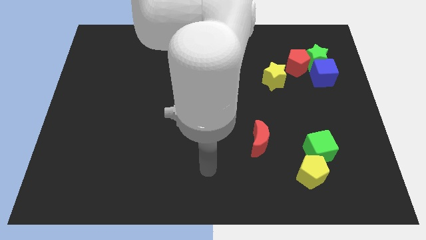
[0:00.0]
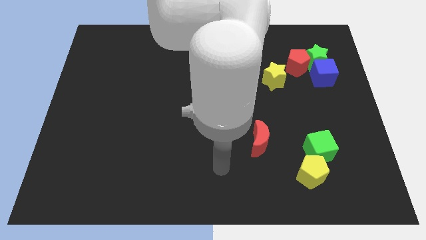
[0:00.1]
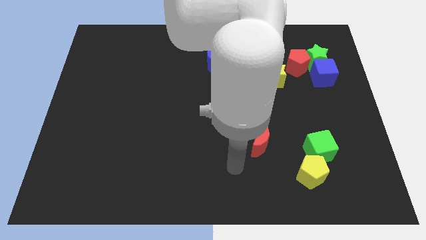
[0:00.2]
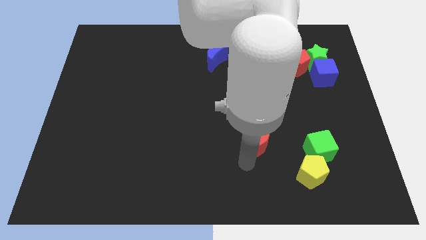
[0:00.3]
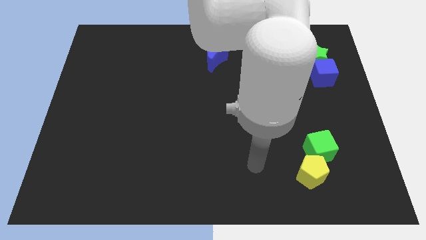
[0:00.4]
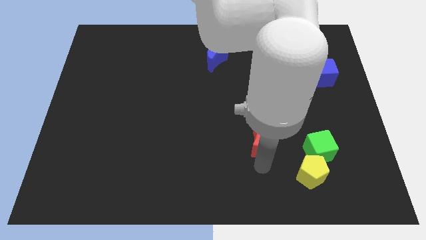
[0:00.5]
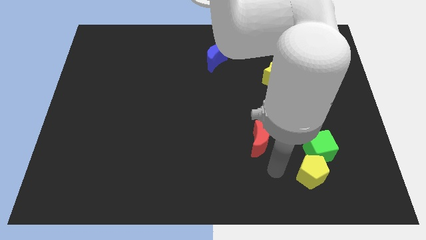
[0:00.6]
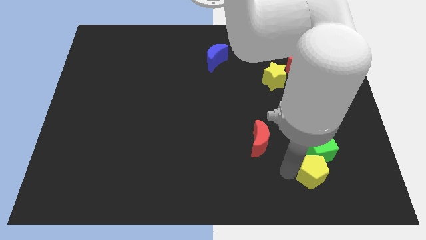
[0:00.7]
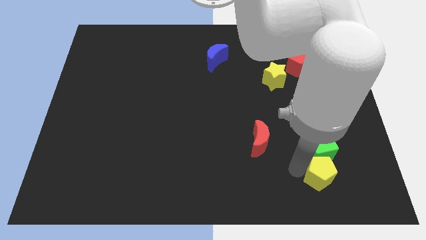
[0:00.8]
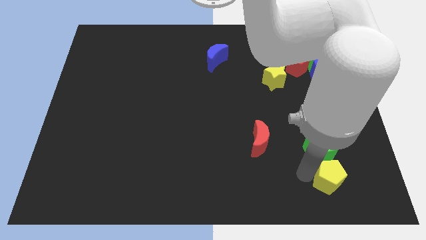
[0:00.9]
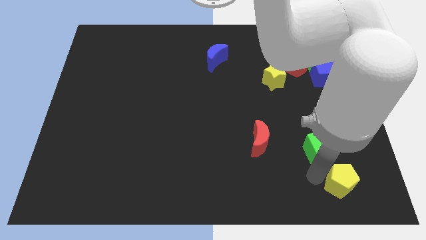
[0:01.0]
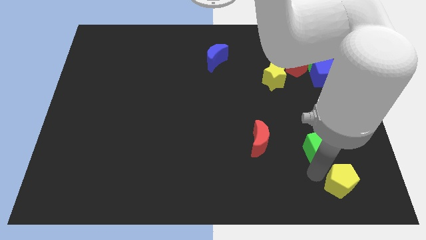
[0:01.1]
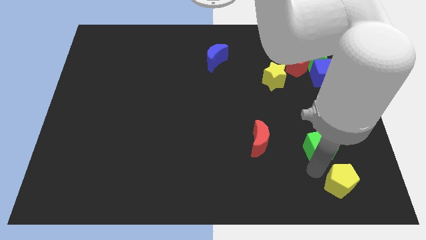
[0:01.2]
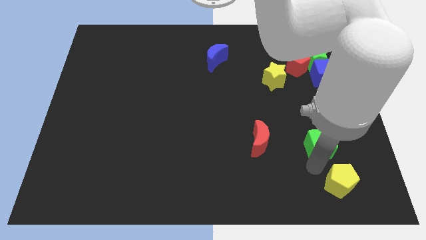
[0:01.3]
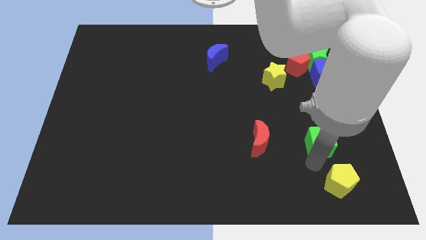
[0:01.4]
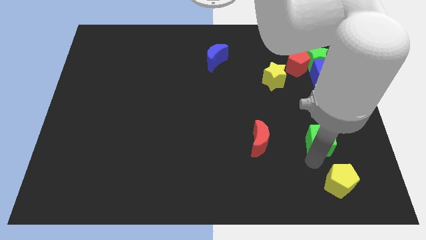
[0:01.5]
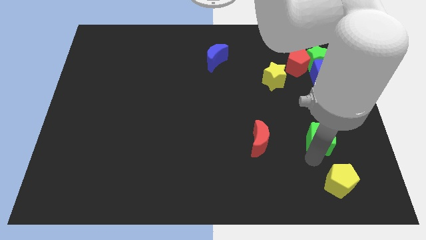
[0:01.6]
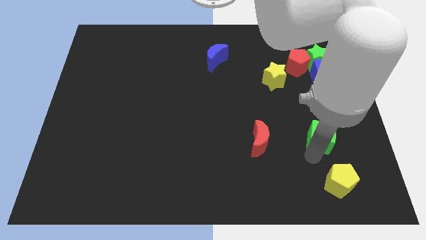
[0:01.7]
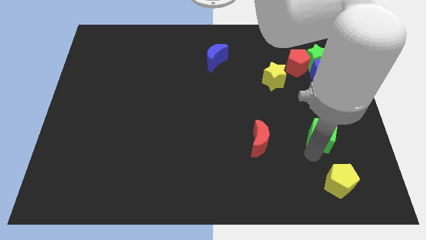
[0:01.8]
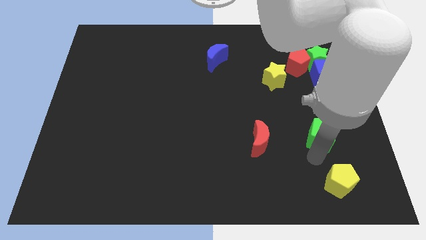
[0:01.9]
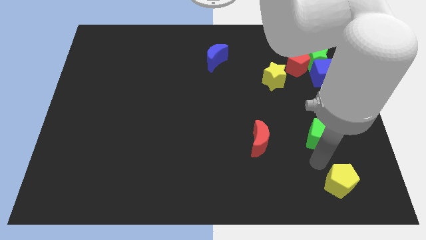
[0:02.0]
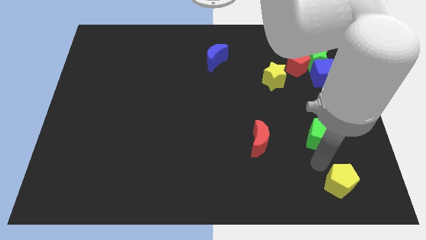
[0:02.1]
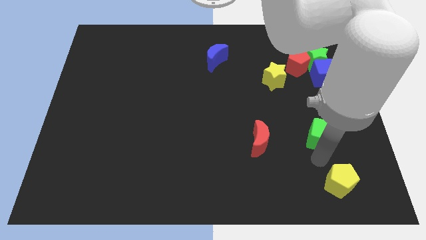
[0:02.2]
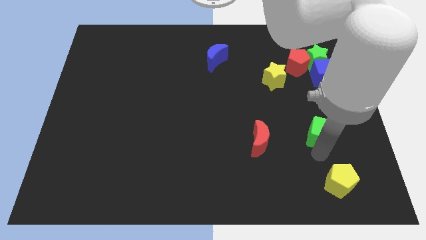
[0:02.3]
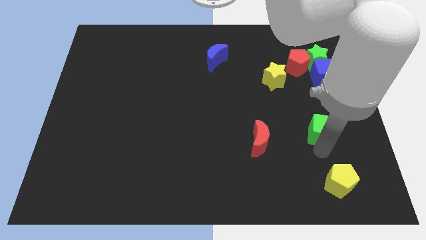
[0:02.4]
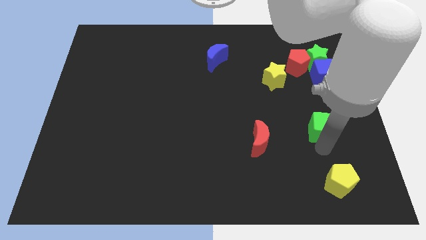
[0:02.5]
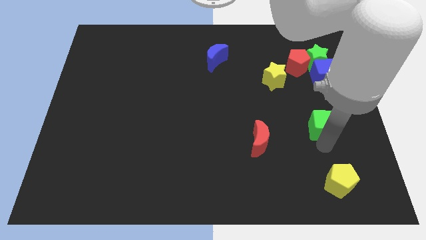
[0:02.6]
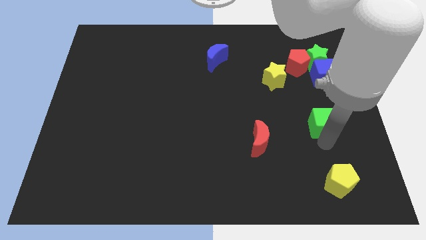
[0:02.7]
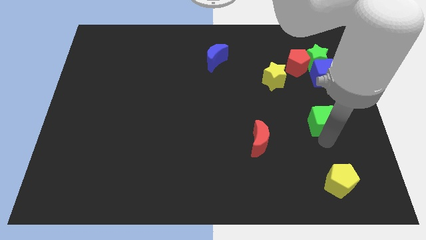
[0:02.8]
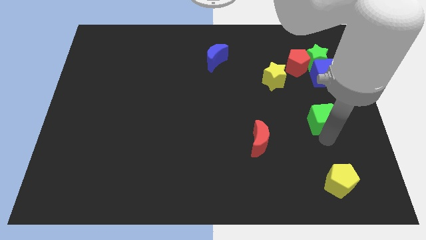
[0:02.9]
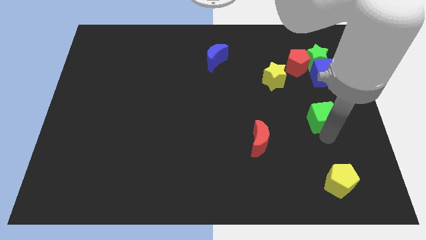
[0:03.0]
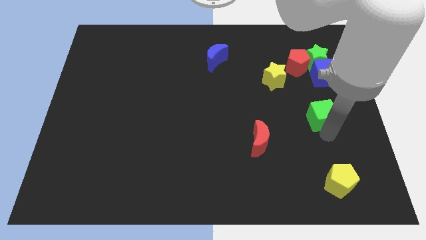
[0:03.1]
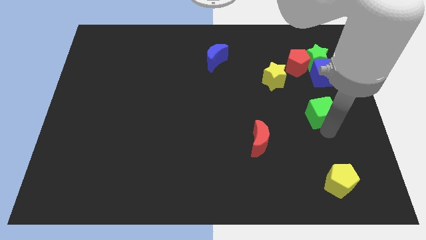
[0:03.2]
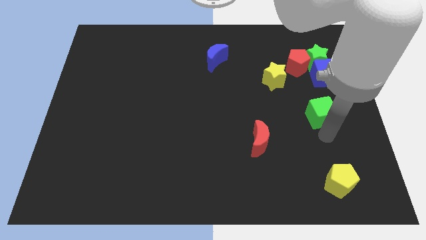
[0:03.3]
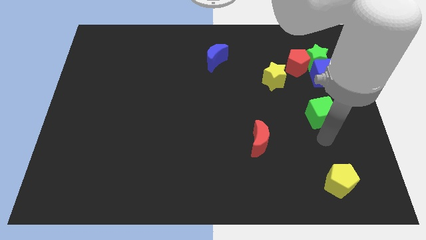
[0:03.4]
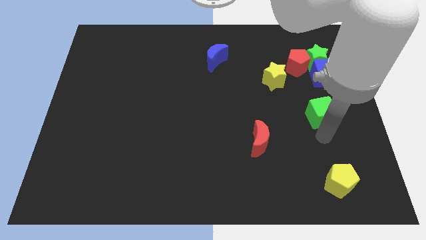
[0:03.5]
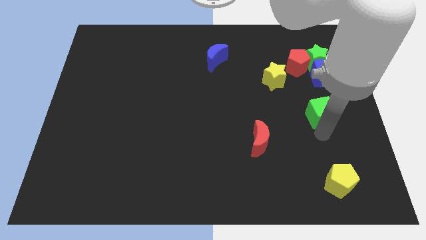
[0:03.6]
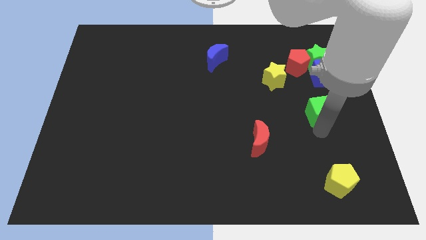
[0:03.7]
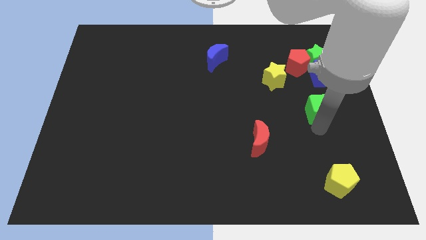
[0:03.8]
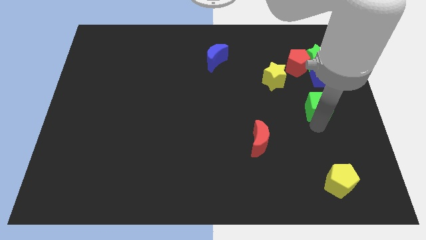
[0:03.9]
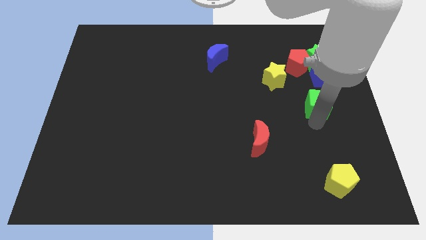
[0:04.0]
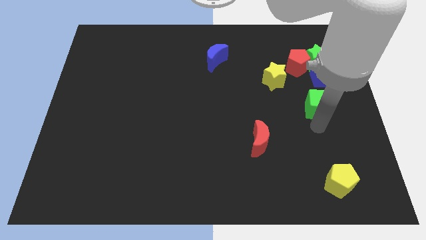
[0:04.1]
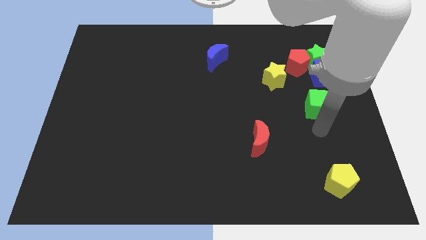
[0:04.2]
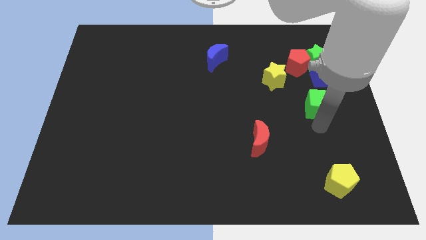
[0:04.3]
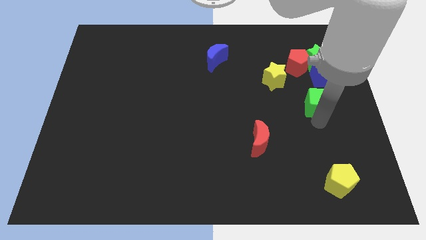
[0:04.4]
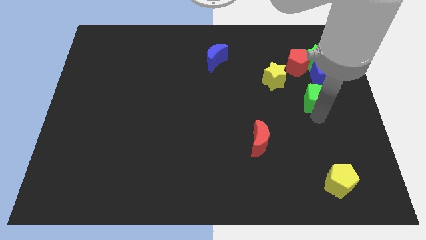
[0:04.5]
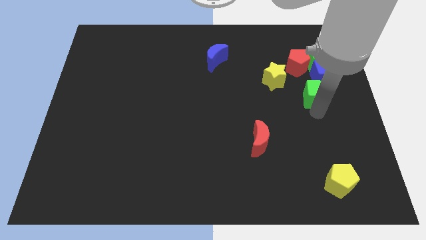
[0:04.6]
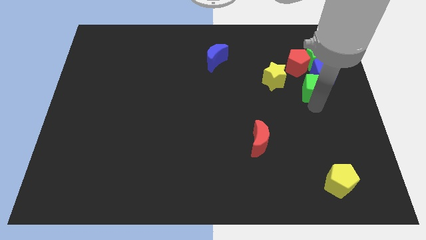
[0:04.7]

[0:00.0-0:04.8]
slide the green cube to the blue cube

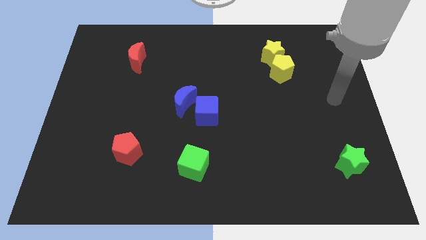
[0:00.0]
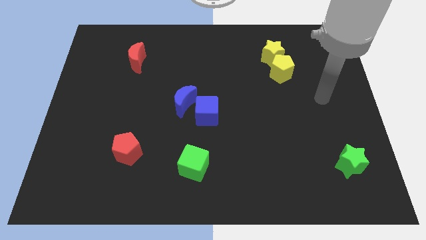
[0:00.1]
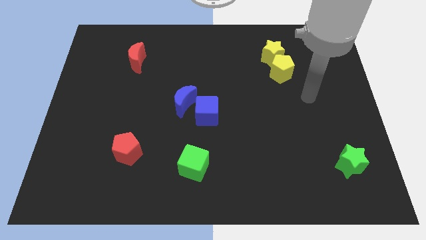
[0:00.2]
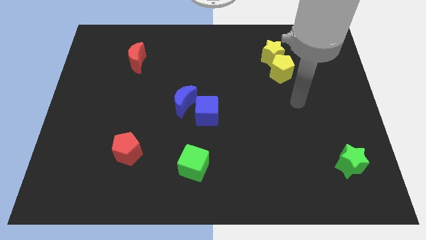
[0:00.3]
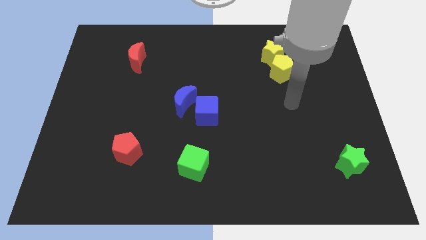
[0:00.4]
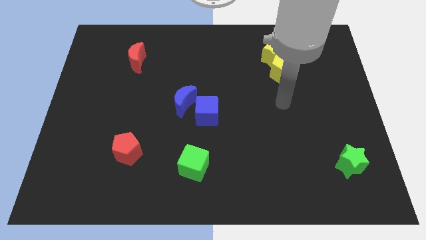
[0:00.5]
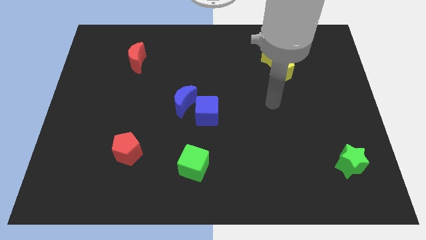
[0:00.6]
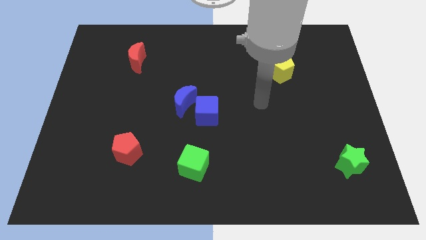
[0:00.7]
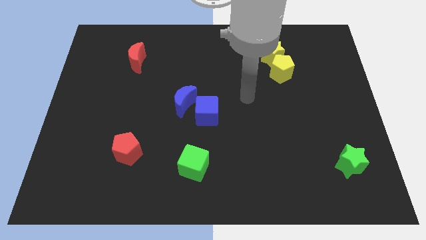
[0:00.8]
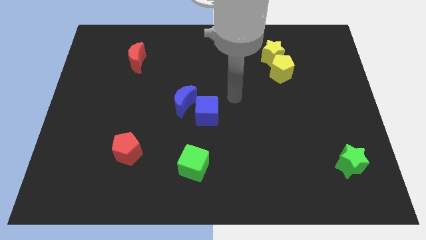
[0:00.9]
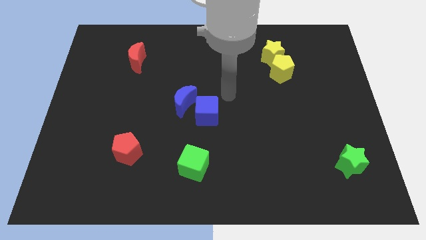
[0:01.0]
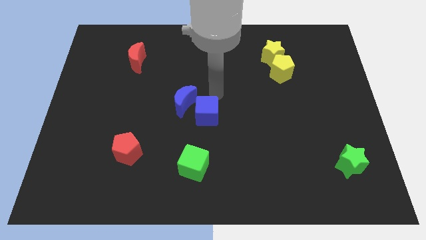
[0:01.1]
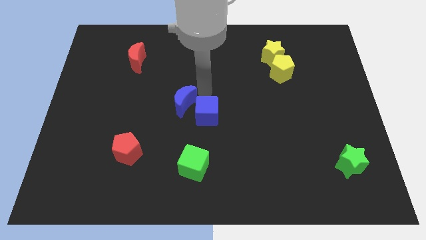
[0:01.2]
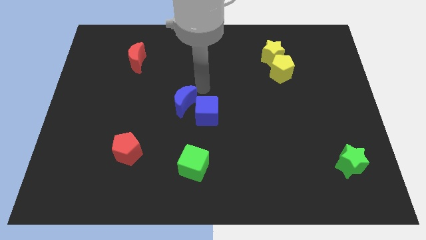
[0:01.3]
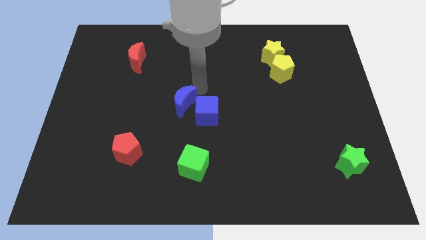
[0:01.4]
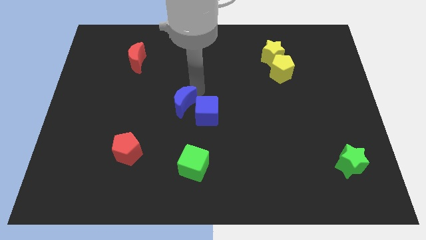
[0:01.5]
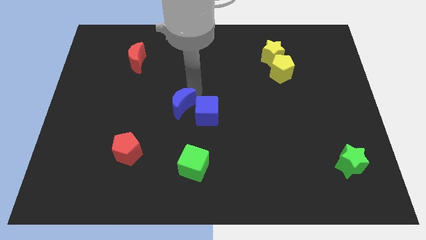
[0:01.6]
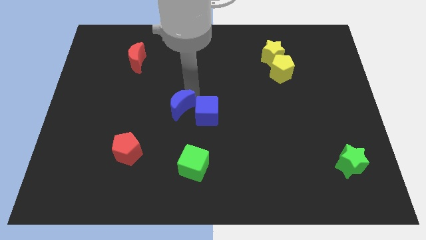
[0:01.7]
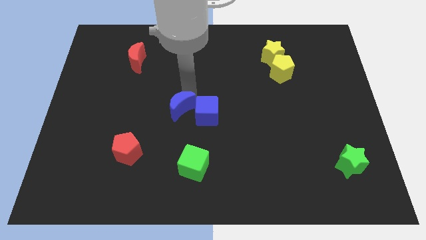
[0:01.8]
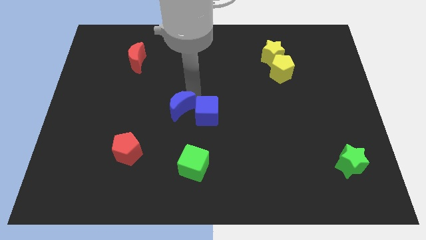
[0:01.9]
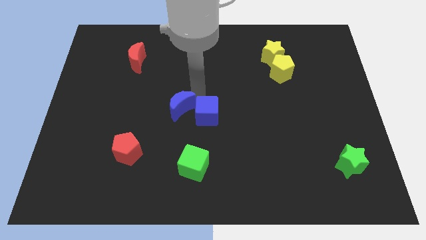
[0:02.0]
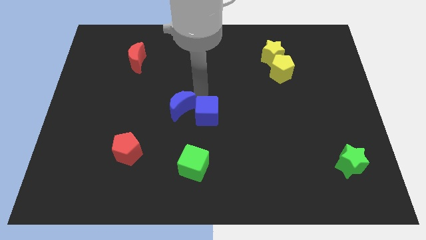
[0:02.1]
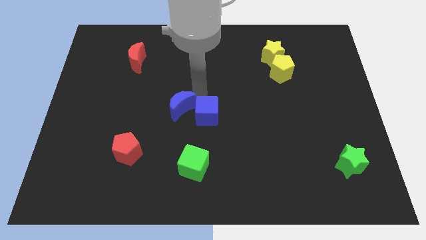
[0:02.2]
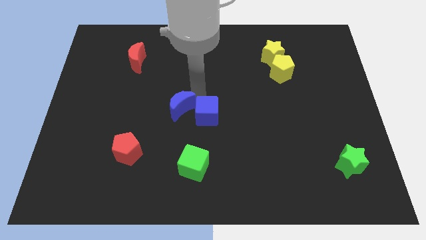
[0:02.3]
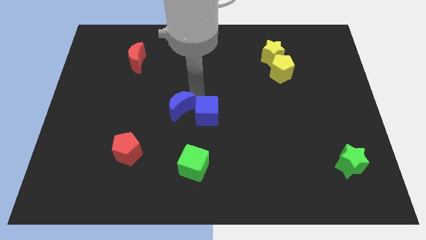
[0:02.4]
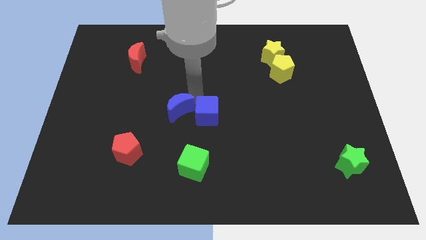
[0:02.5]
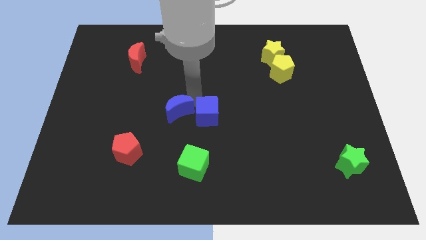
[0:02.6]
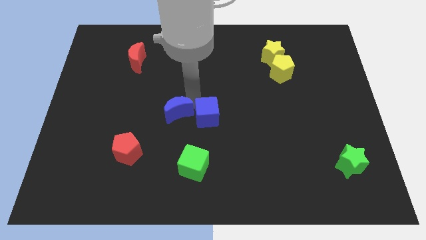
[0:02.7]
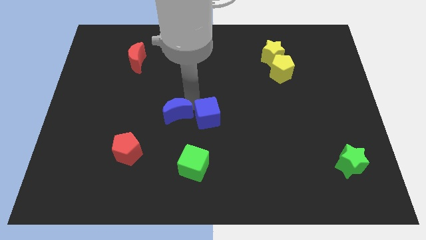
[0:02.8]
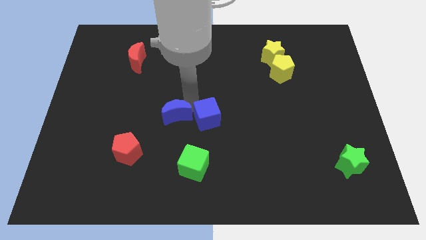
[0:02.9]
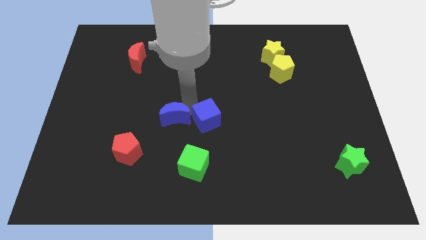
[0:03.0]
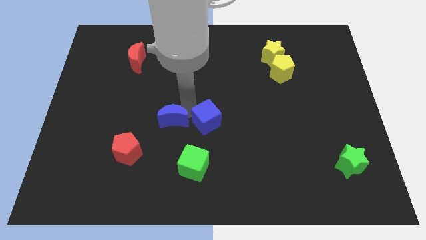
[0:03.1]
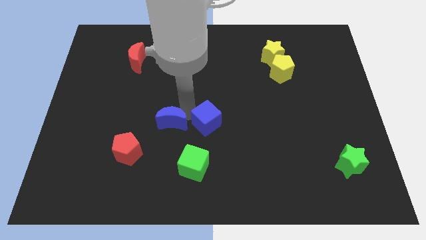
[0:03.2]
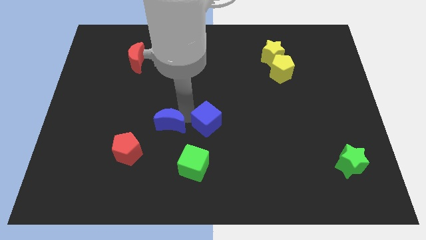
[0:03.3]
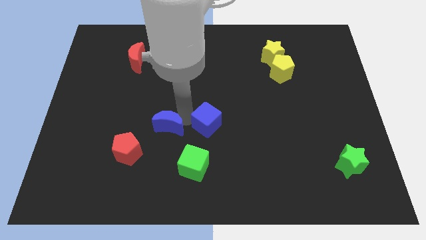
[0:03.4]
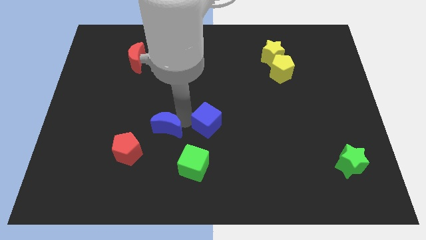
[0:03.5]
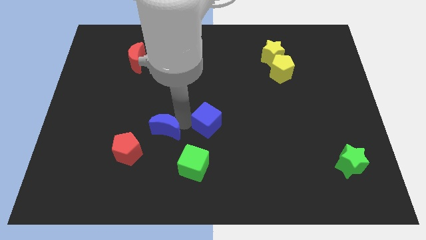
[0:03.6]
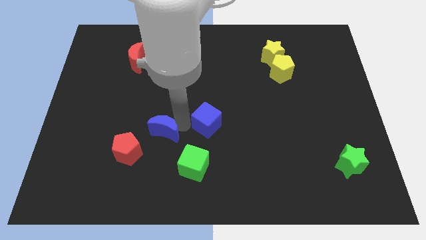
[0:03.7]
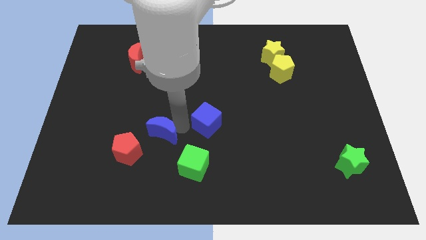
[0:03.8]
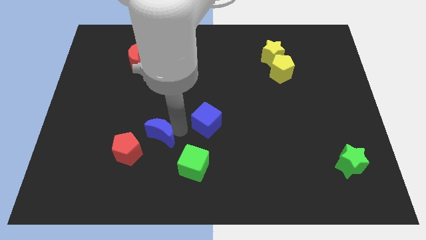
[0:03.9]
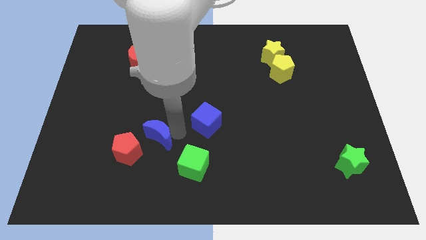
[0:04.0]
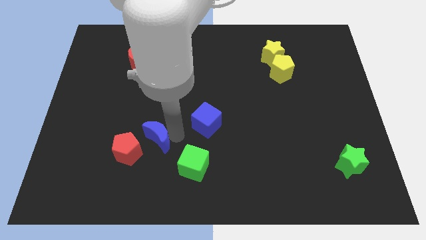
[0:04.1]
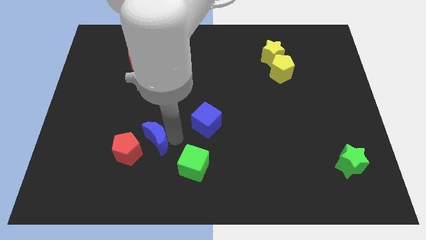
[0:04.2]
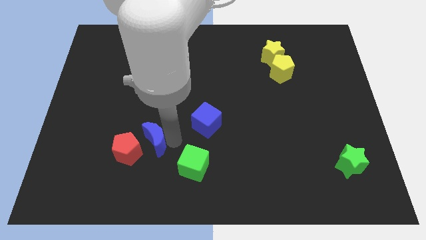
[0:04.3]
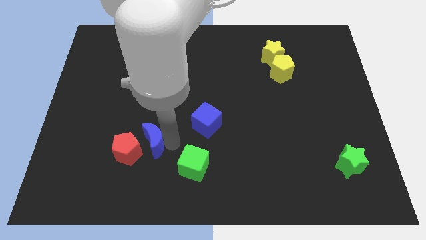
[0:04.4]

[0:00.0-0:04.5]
slide the blue moon to the red pentagon
